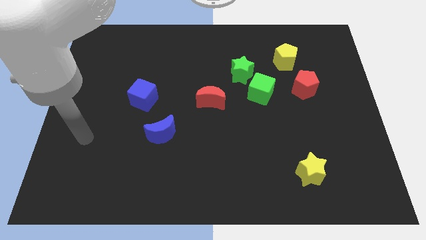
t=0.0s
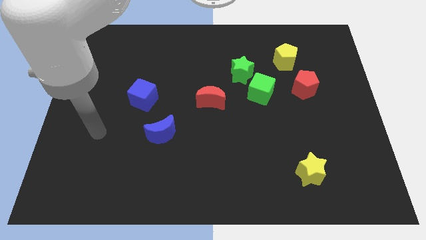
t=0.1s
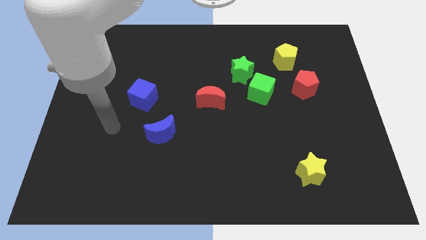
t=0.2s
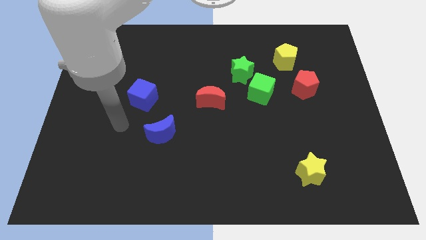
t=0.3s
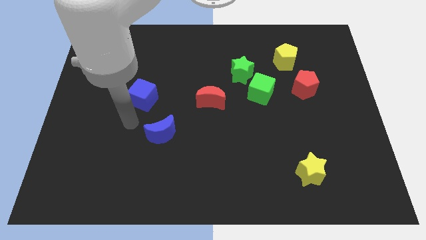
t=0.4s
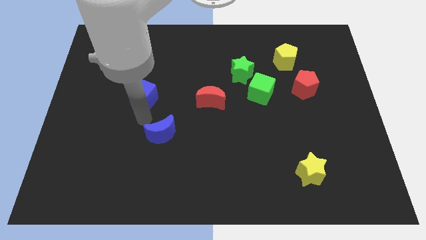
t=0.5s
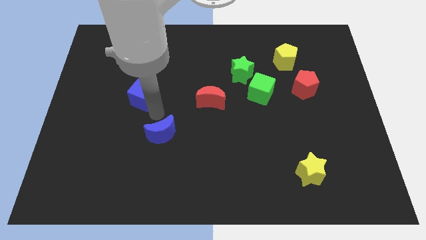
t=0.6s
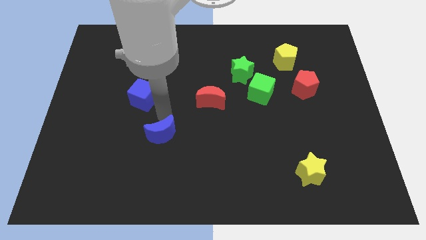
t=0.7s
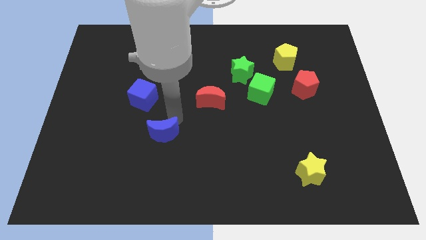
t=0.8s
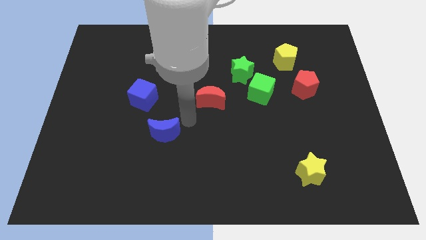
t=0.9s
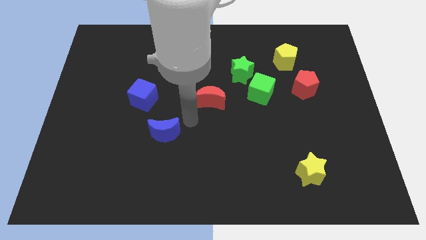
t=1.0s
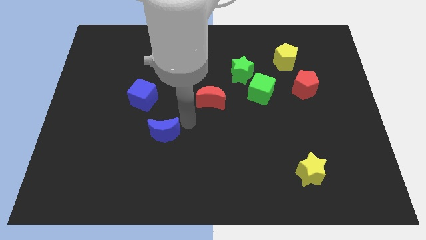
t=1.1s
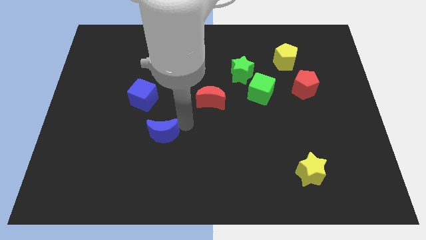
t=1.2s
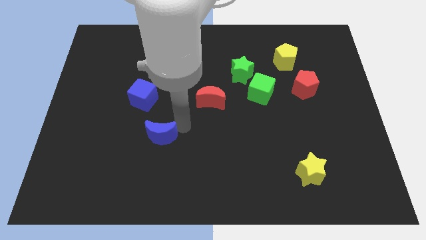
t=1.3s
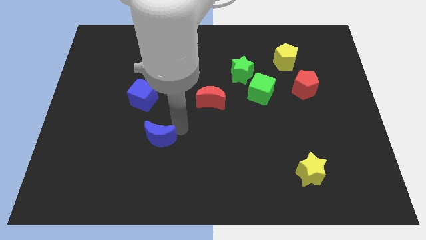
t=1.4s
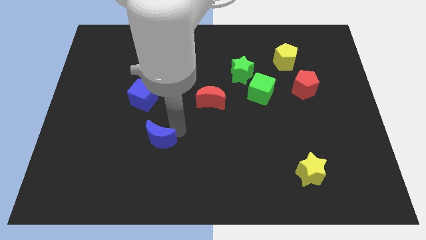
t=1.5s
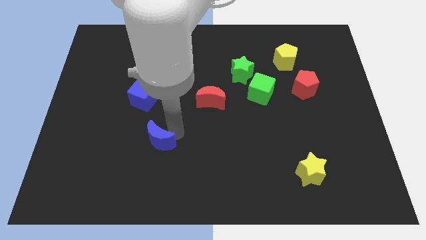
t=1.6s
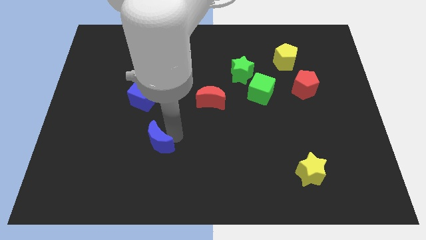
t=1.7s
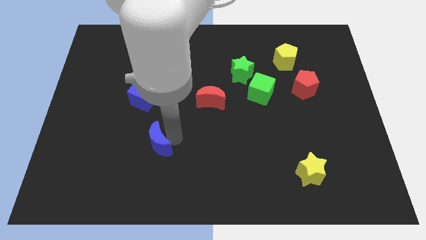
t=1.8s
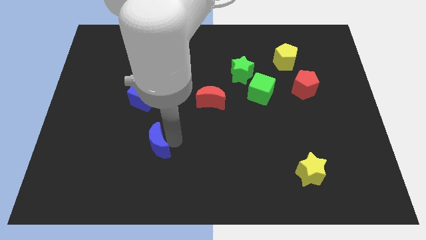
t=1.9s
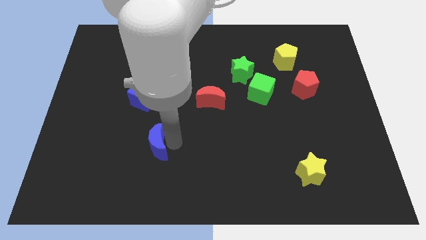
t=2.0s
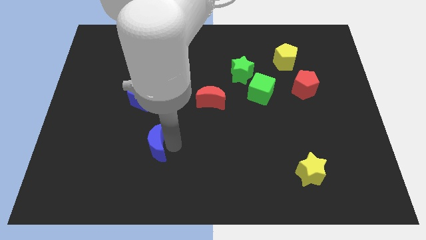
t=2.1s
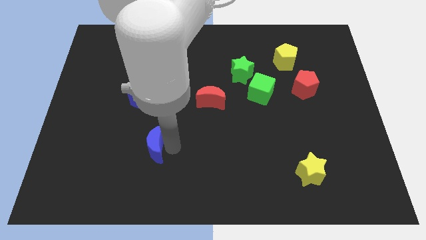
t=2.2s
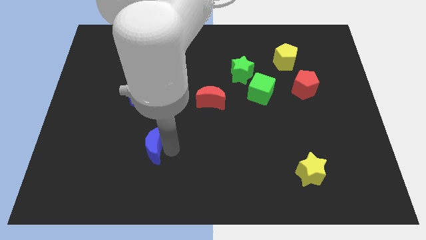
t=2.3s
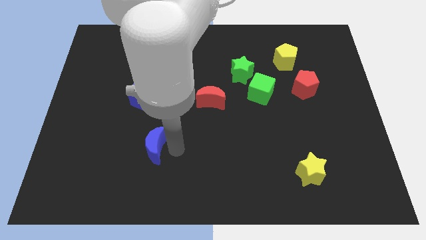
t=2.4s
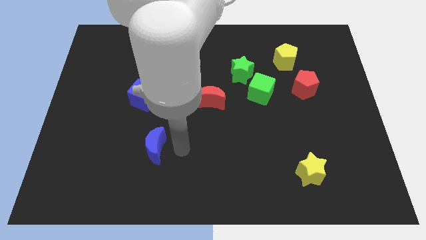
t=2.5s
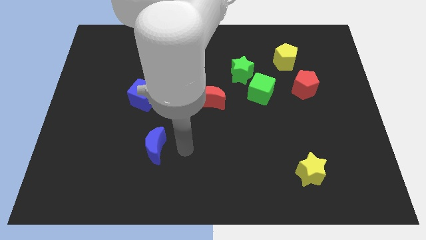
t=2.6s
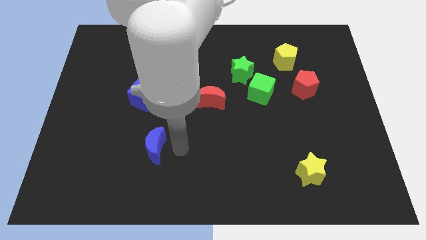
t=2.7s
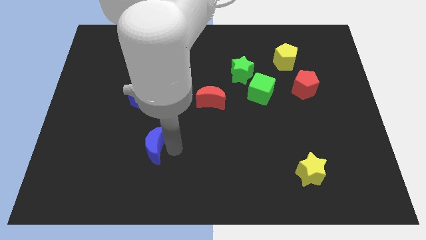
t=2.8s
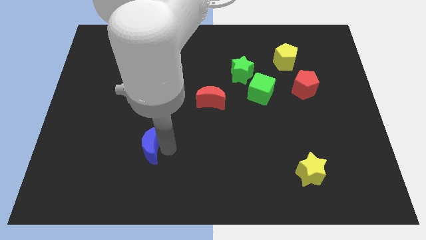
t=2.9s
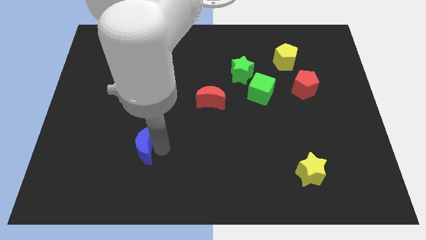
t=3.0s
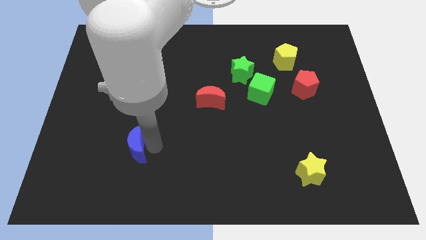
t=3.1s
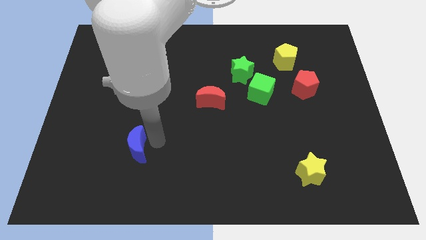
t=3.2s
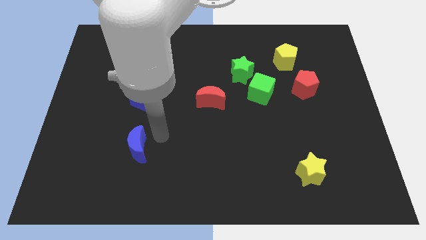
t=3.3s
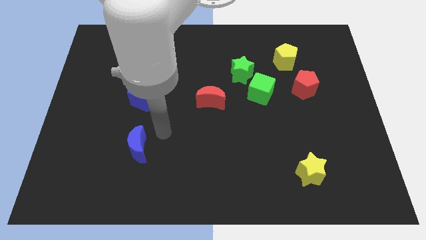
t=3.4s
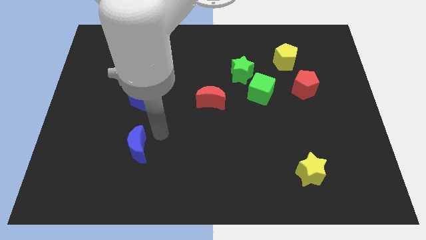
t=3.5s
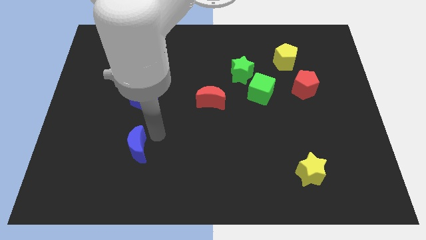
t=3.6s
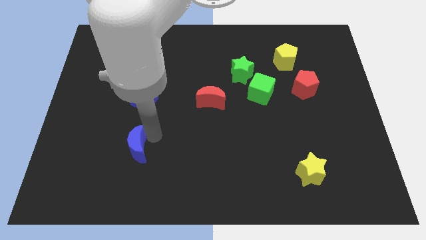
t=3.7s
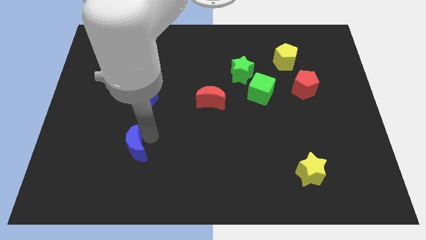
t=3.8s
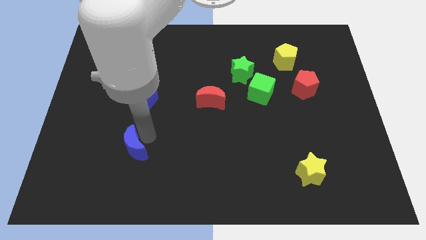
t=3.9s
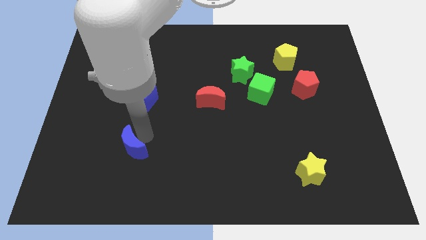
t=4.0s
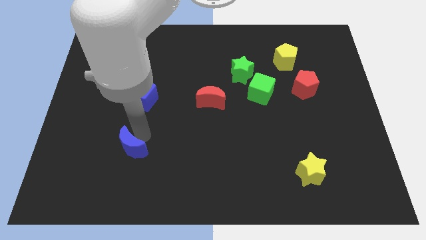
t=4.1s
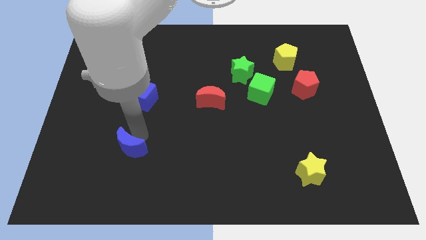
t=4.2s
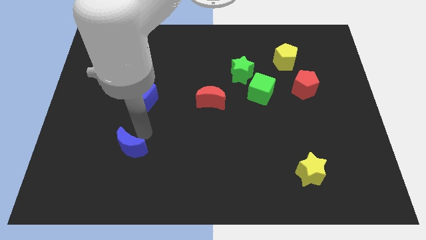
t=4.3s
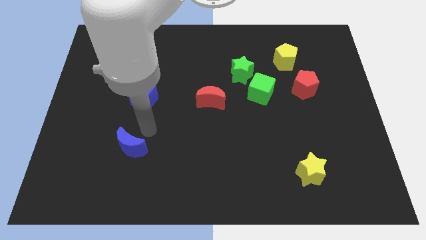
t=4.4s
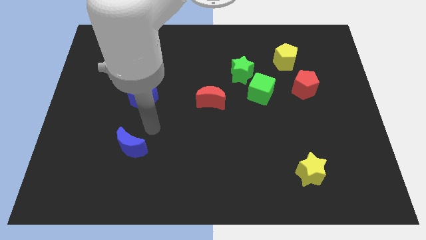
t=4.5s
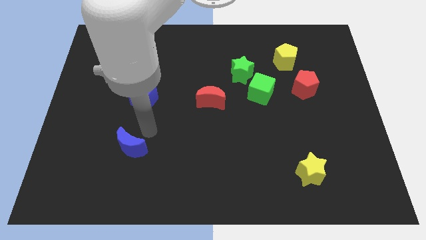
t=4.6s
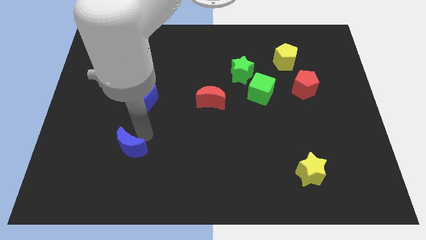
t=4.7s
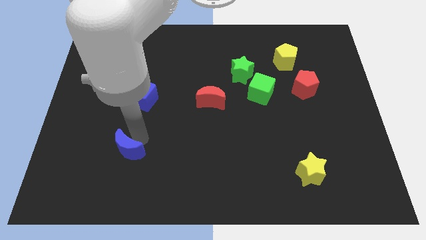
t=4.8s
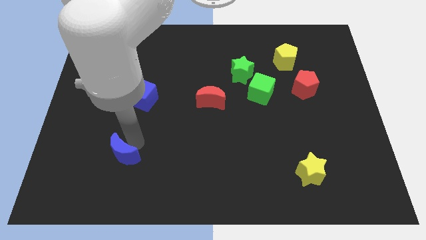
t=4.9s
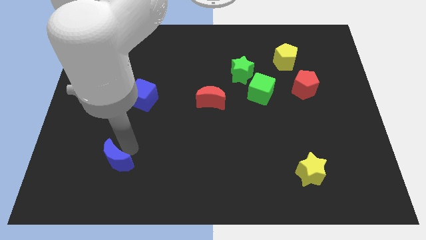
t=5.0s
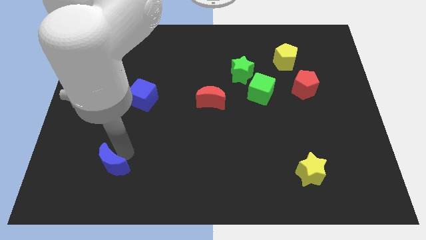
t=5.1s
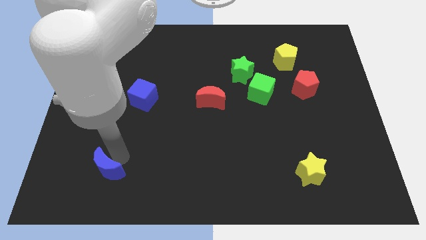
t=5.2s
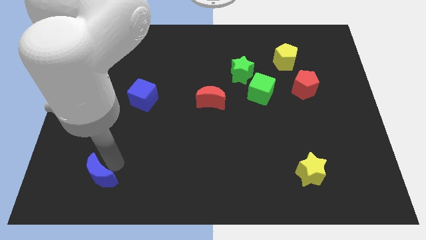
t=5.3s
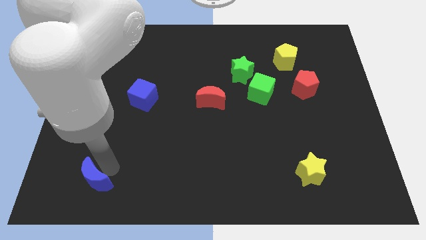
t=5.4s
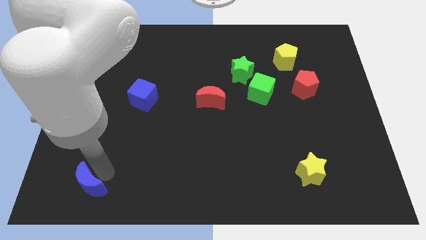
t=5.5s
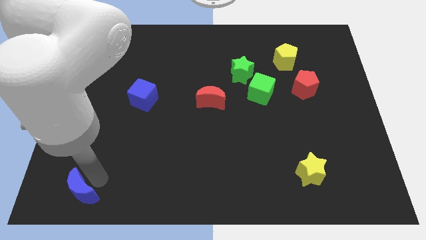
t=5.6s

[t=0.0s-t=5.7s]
slide the blue moon to the lower left corner

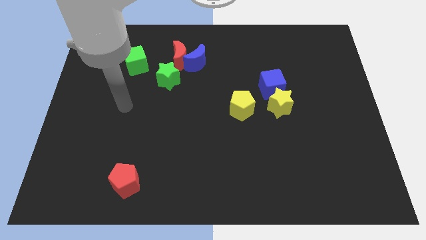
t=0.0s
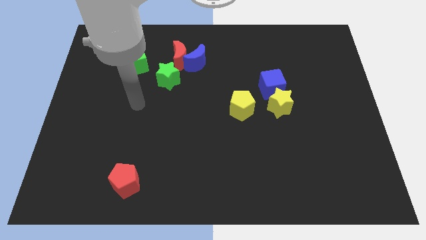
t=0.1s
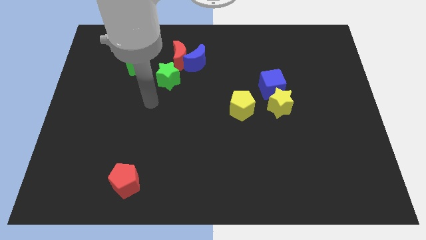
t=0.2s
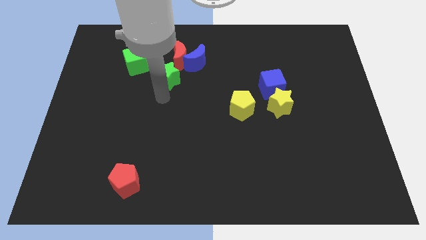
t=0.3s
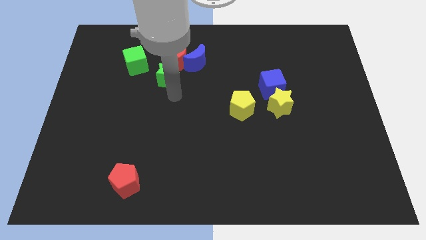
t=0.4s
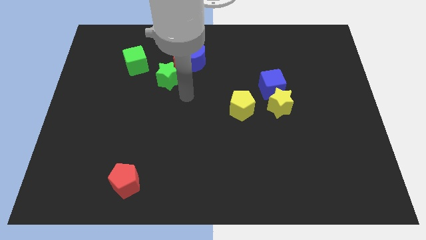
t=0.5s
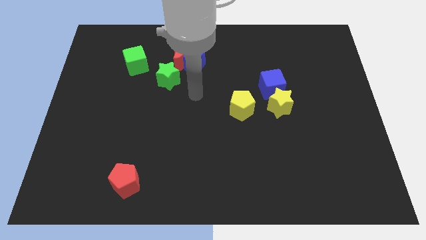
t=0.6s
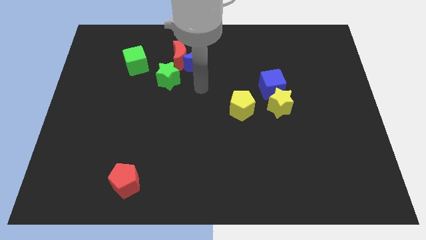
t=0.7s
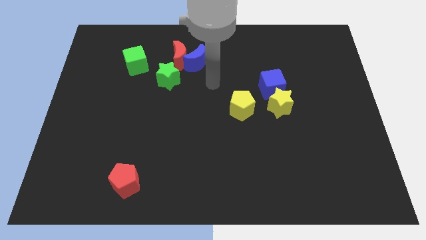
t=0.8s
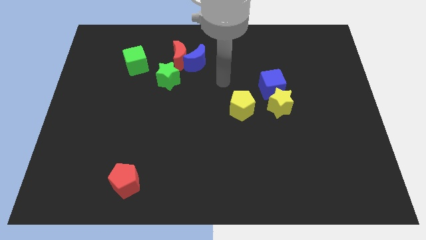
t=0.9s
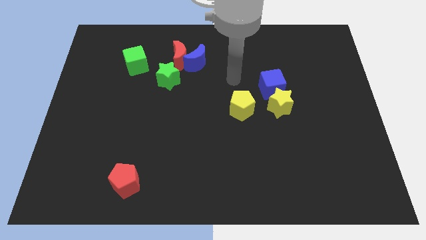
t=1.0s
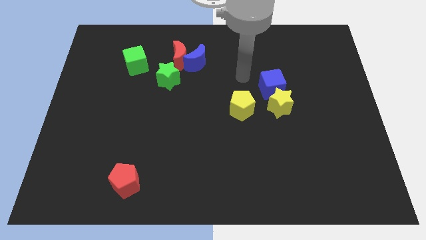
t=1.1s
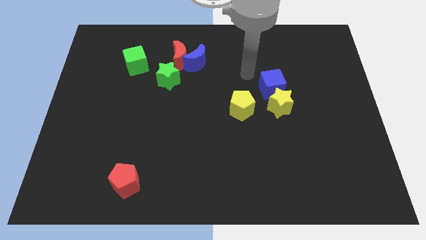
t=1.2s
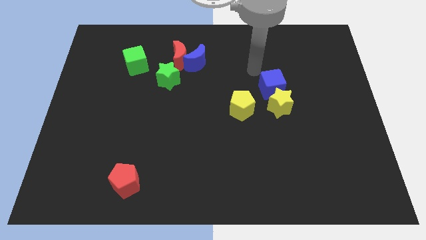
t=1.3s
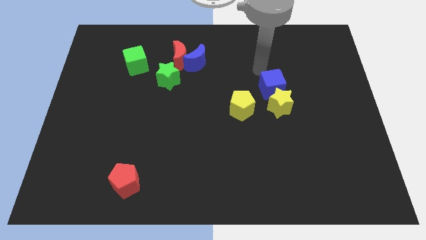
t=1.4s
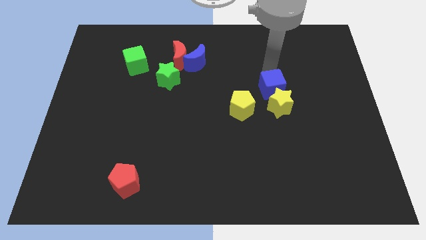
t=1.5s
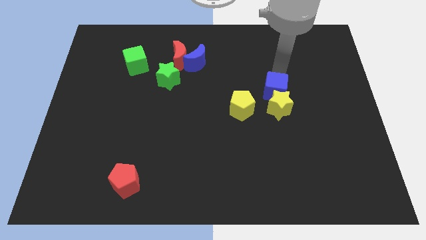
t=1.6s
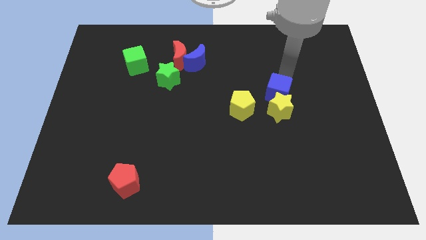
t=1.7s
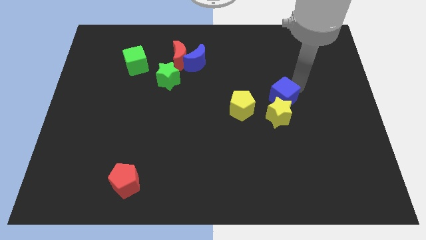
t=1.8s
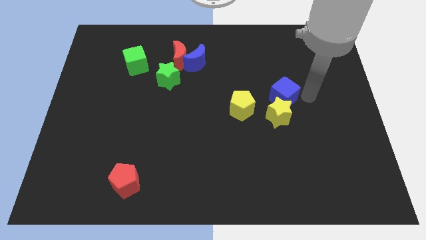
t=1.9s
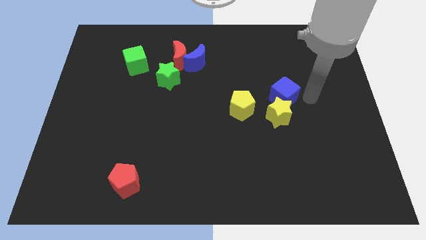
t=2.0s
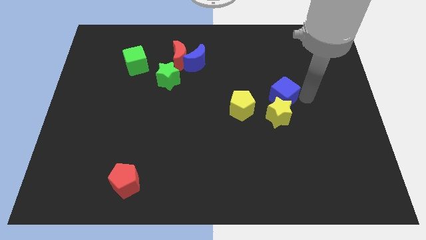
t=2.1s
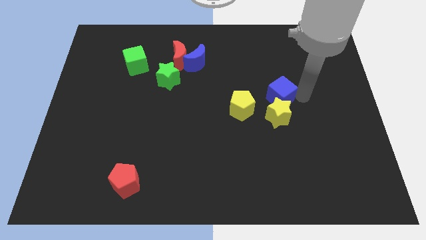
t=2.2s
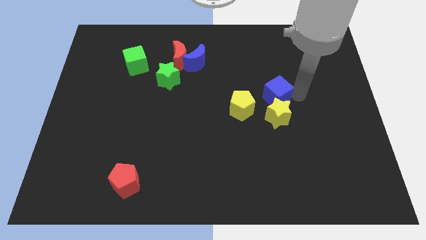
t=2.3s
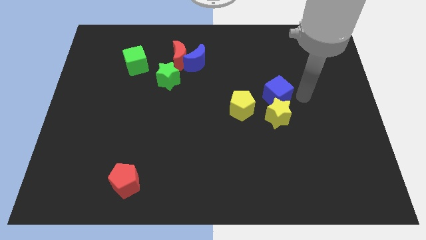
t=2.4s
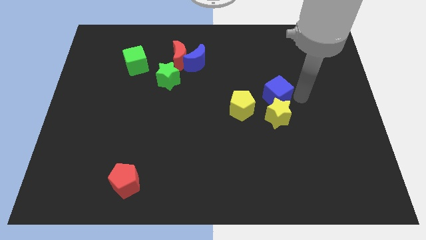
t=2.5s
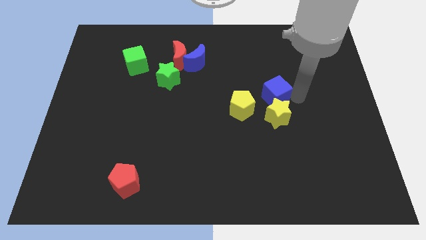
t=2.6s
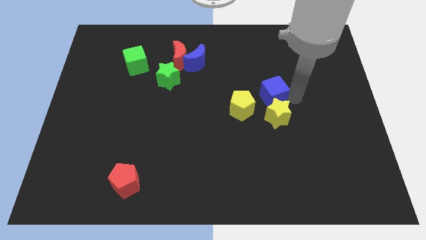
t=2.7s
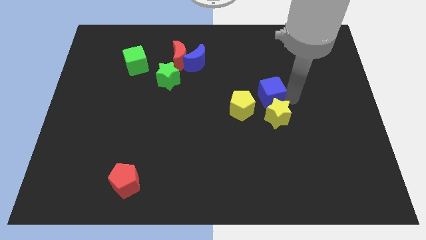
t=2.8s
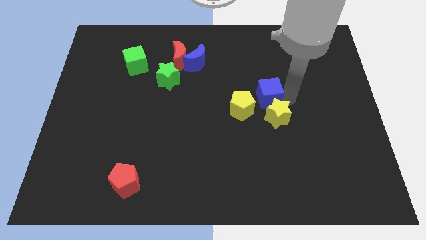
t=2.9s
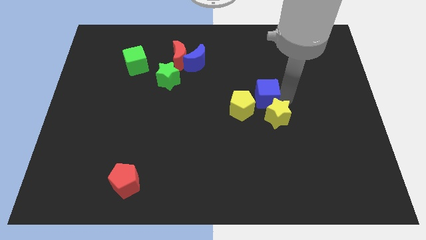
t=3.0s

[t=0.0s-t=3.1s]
put the blue cube to the center
